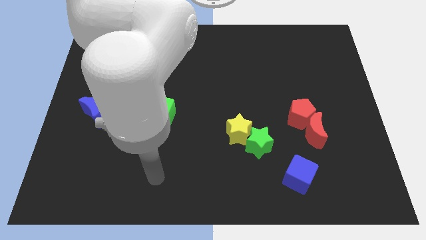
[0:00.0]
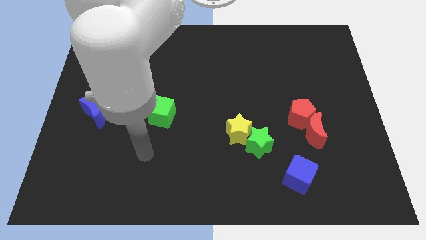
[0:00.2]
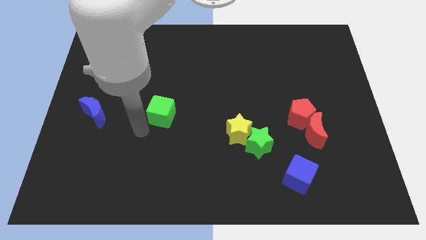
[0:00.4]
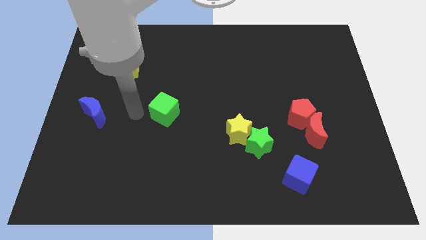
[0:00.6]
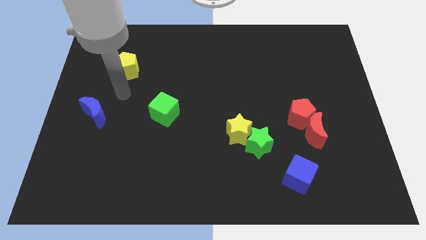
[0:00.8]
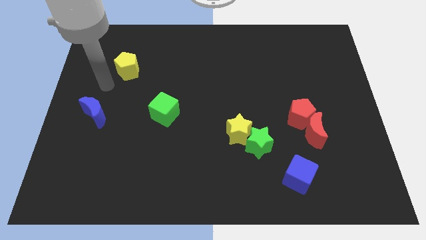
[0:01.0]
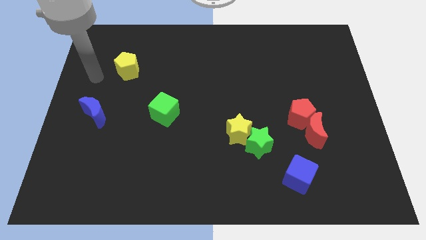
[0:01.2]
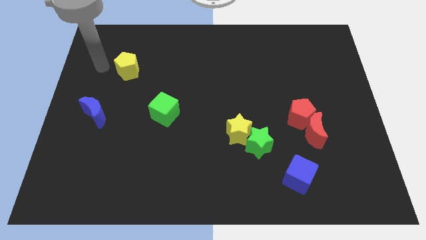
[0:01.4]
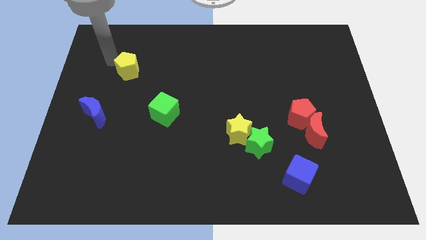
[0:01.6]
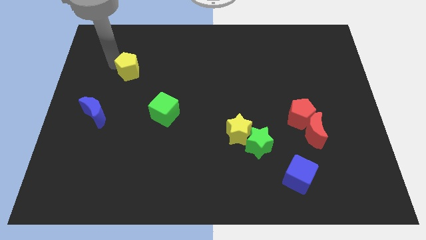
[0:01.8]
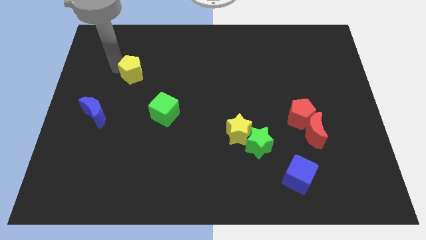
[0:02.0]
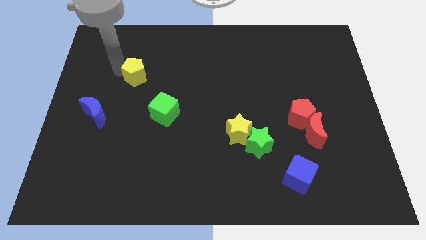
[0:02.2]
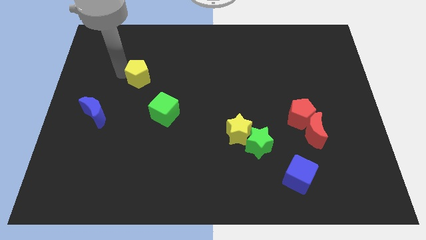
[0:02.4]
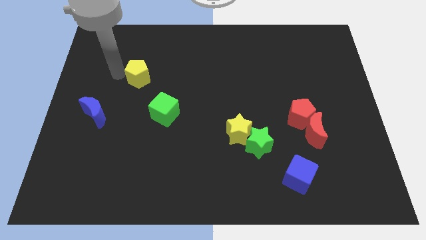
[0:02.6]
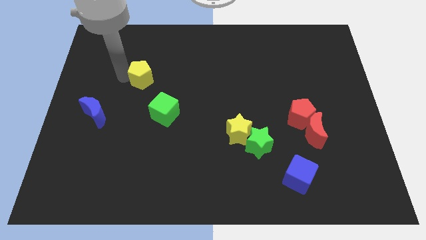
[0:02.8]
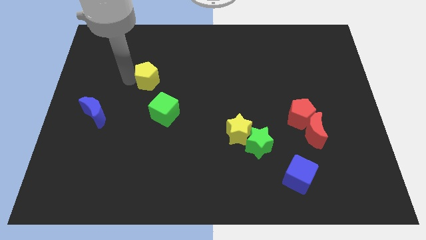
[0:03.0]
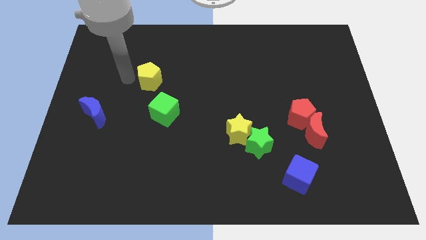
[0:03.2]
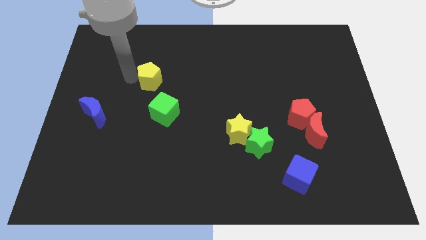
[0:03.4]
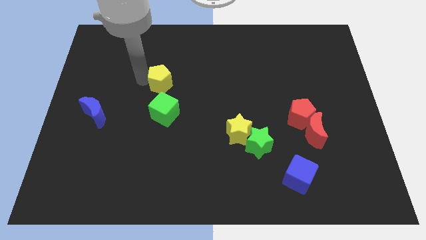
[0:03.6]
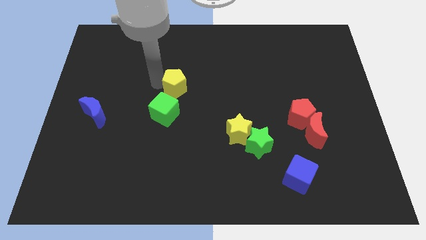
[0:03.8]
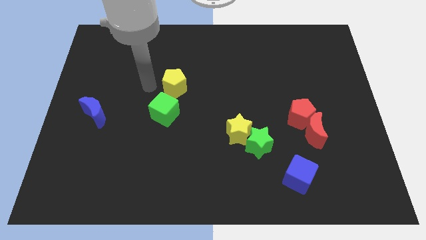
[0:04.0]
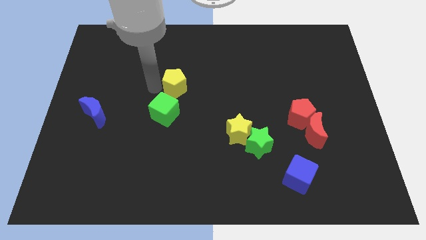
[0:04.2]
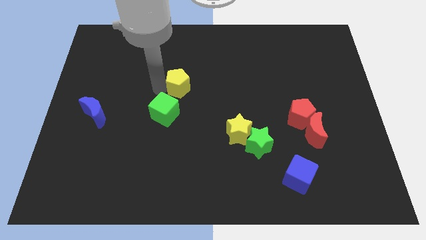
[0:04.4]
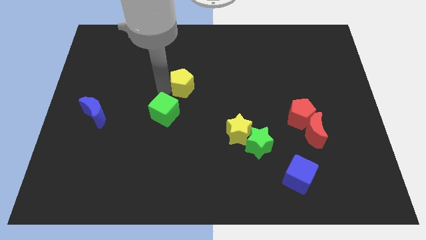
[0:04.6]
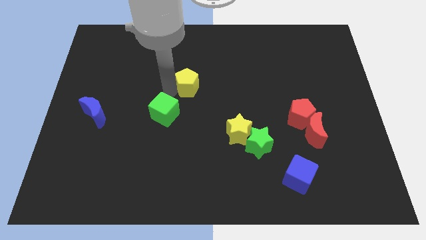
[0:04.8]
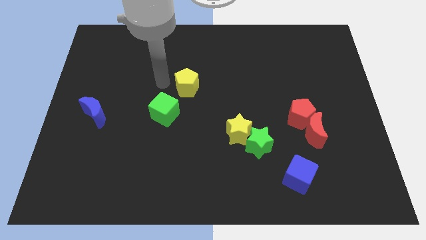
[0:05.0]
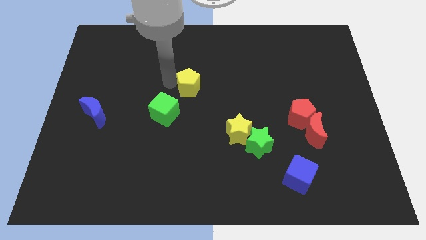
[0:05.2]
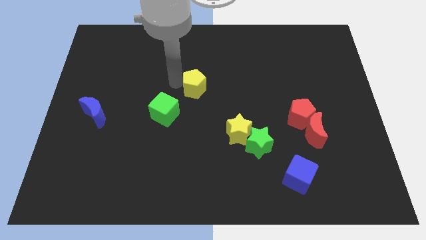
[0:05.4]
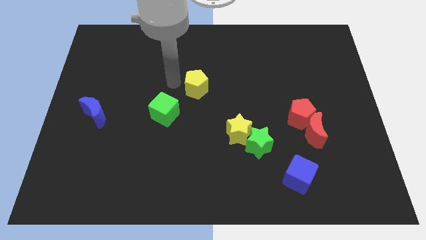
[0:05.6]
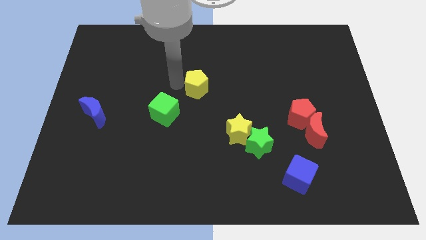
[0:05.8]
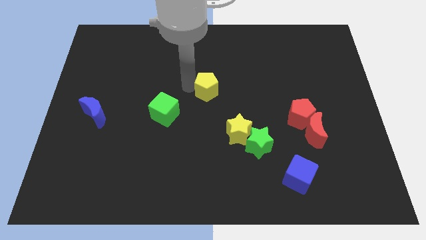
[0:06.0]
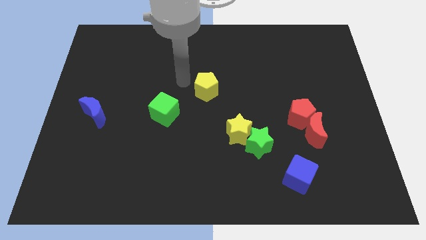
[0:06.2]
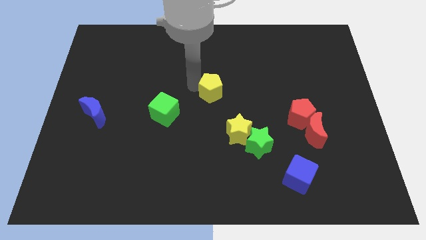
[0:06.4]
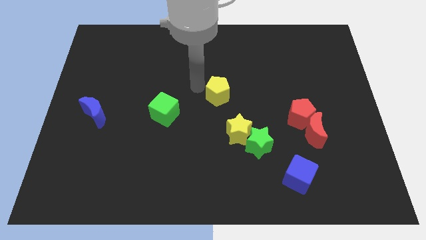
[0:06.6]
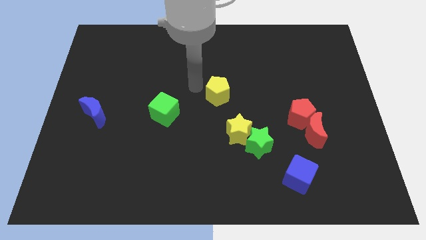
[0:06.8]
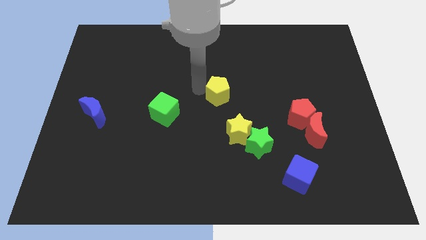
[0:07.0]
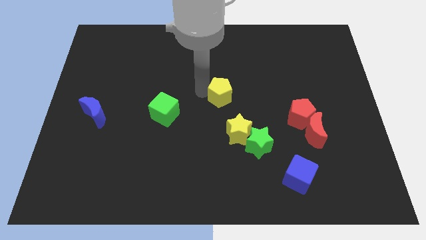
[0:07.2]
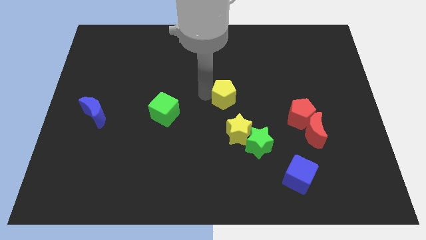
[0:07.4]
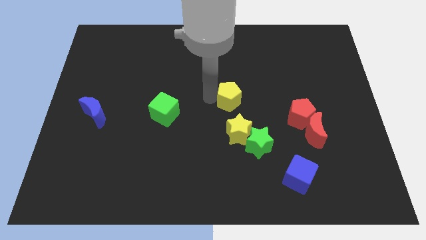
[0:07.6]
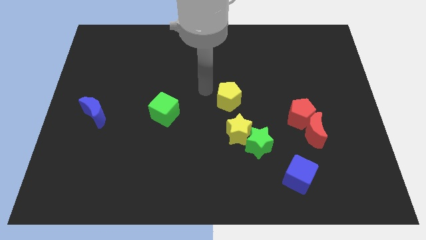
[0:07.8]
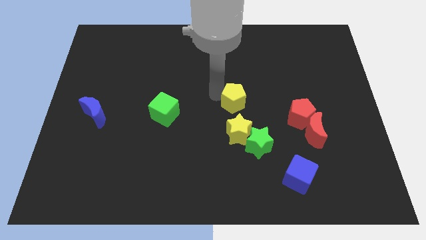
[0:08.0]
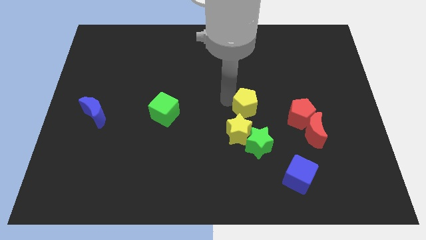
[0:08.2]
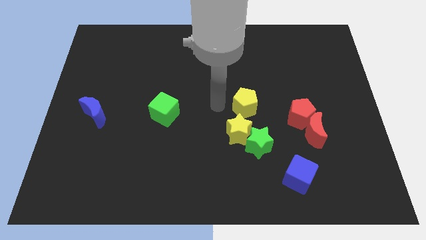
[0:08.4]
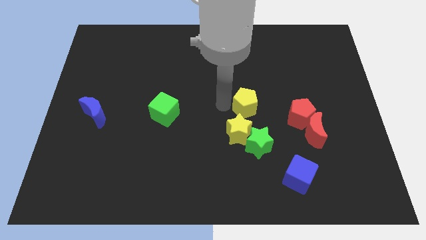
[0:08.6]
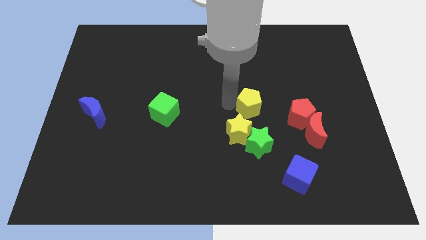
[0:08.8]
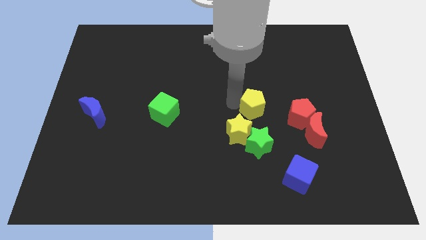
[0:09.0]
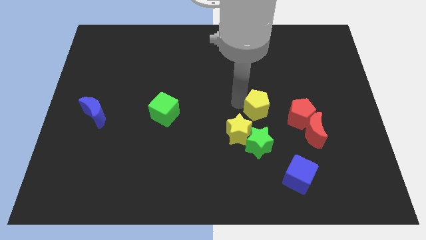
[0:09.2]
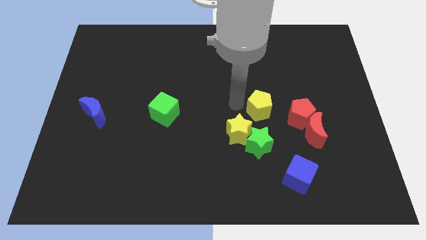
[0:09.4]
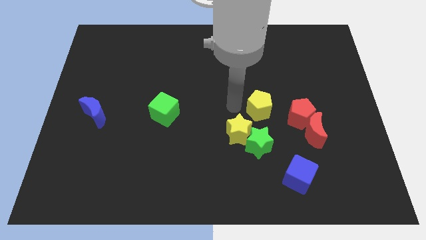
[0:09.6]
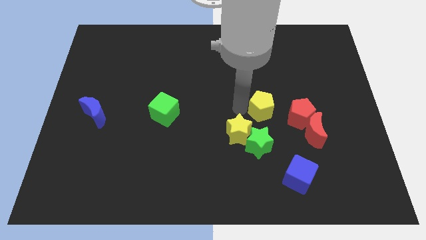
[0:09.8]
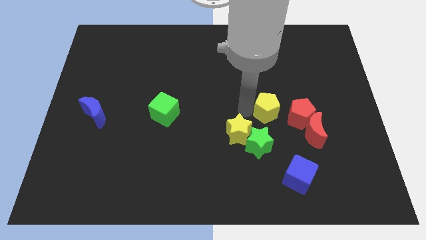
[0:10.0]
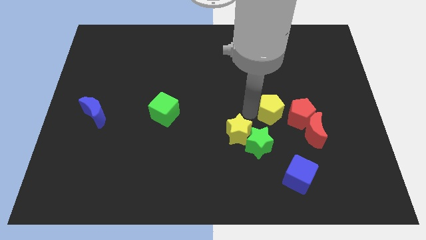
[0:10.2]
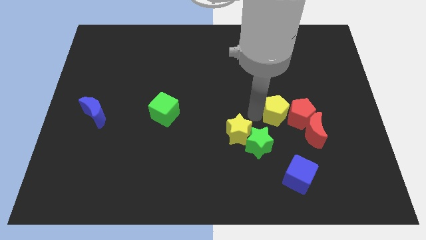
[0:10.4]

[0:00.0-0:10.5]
push the yellow pentagon close to the red pentagon

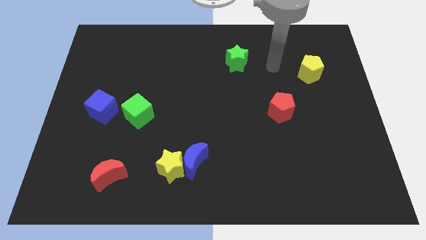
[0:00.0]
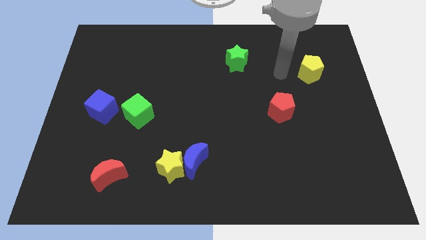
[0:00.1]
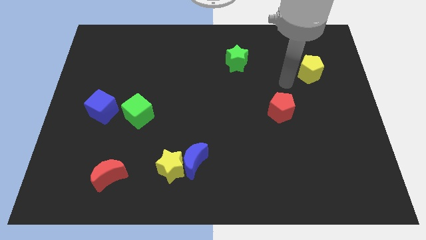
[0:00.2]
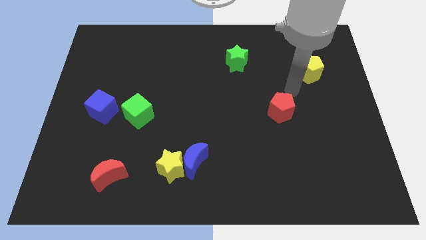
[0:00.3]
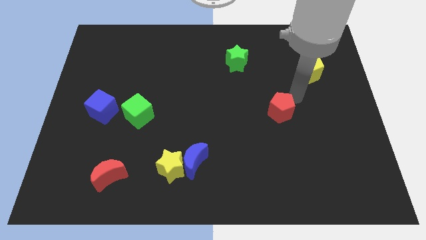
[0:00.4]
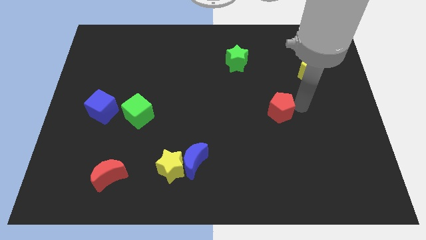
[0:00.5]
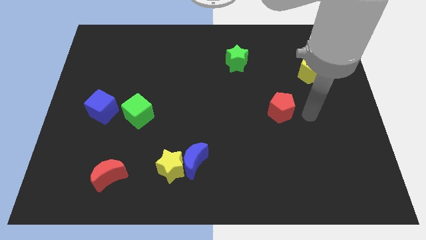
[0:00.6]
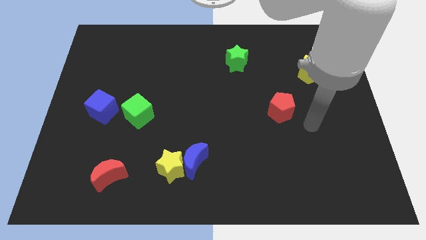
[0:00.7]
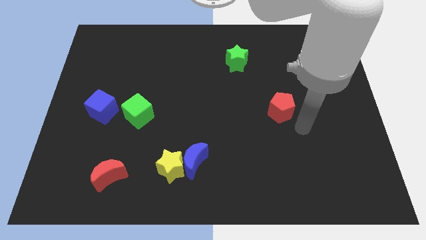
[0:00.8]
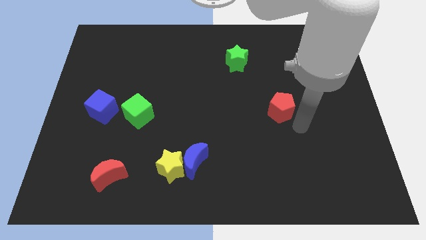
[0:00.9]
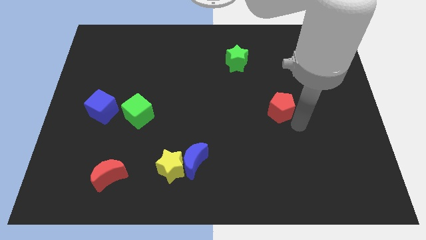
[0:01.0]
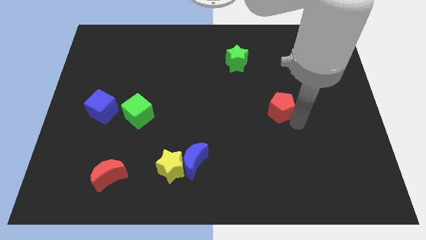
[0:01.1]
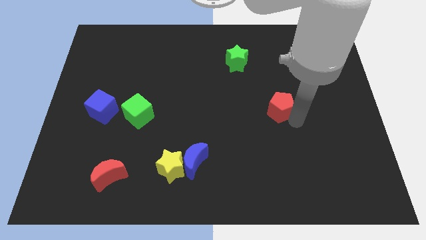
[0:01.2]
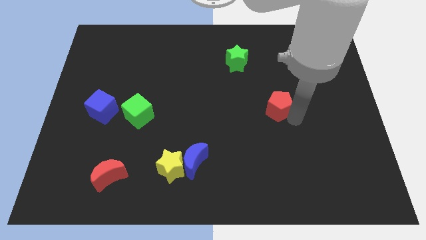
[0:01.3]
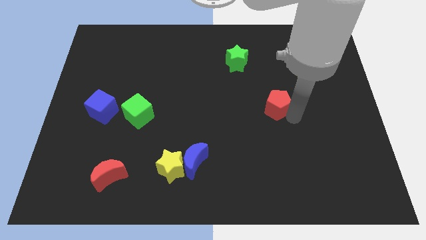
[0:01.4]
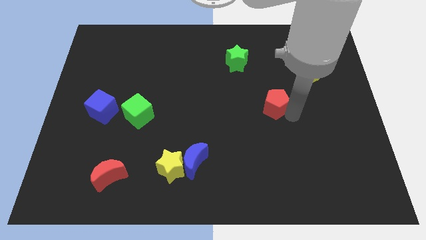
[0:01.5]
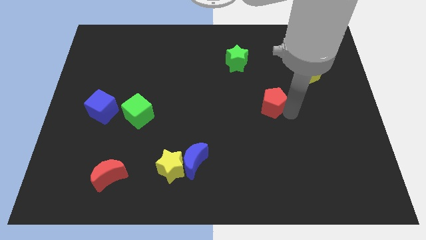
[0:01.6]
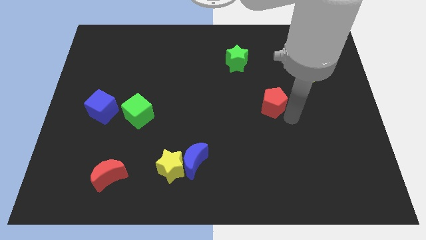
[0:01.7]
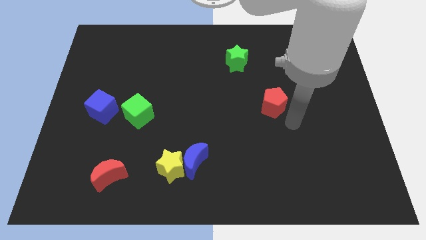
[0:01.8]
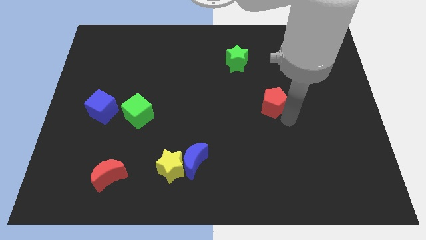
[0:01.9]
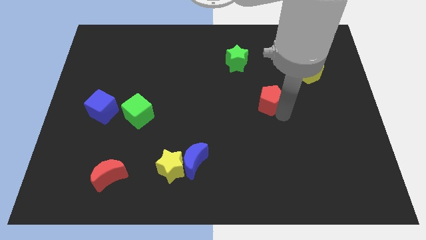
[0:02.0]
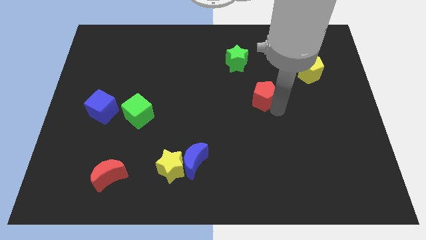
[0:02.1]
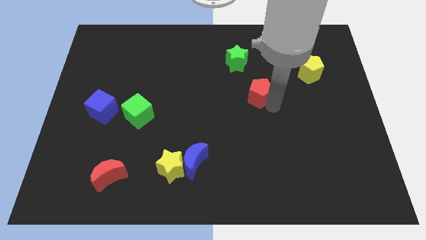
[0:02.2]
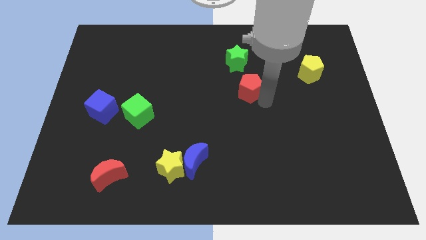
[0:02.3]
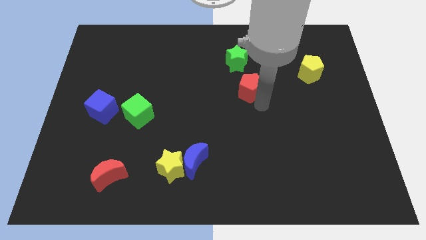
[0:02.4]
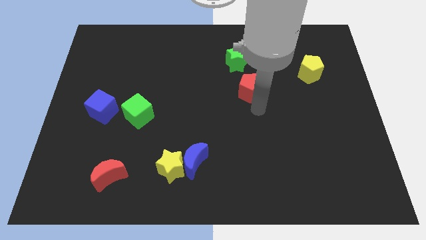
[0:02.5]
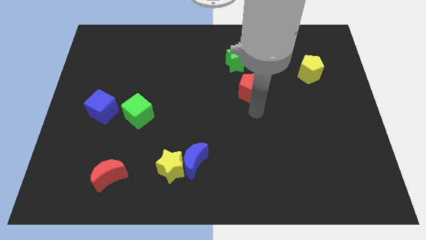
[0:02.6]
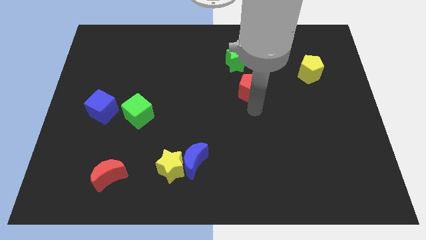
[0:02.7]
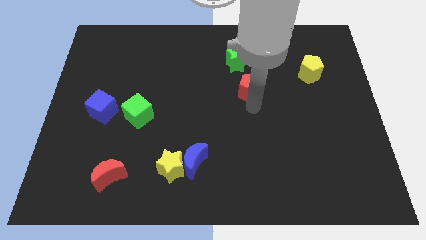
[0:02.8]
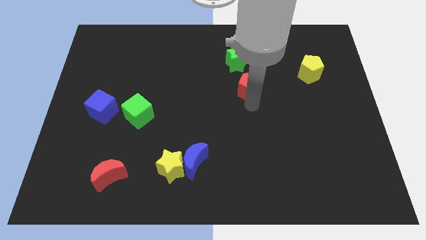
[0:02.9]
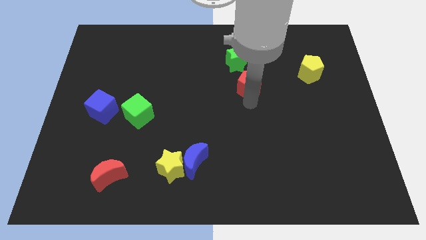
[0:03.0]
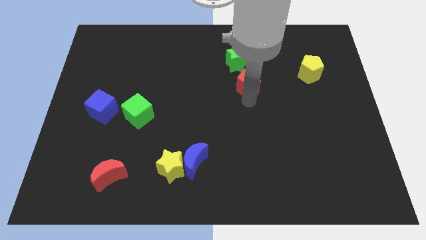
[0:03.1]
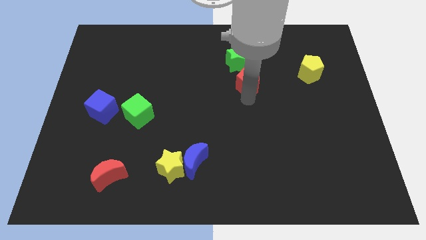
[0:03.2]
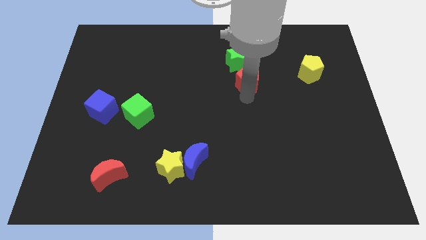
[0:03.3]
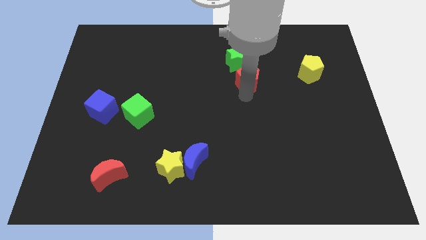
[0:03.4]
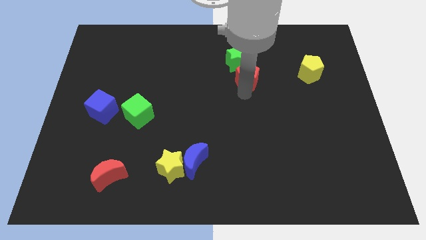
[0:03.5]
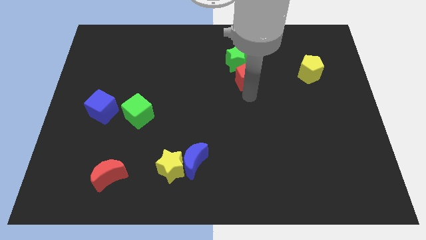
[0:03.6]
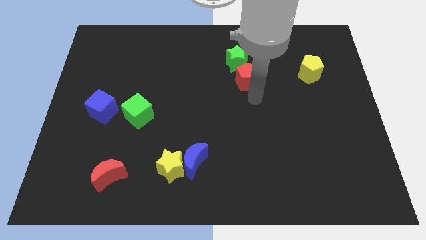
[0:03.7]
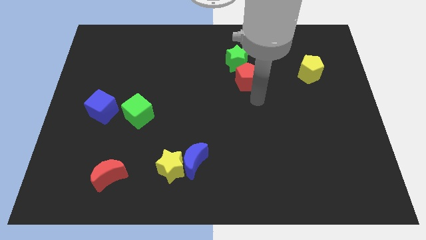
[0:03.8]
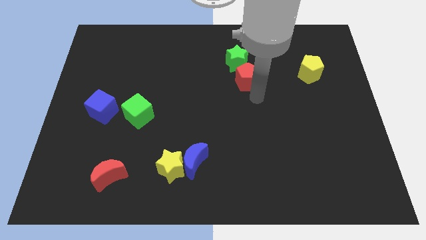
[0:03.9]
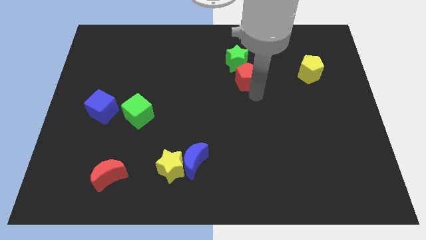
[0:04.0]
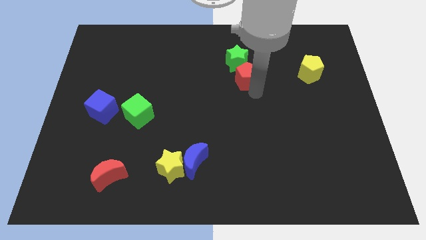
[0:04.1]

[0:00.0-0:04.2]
push the red pentagon towards the green star
